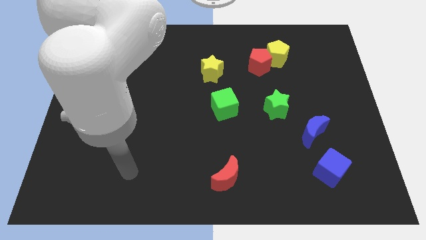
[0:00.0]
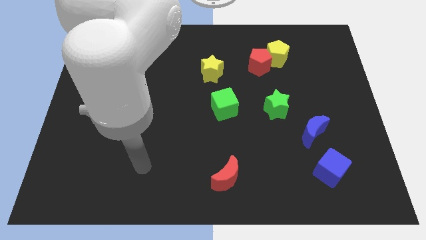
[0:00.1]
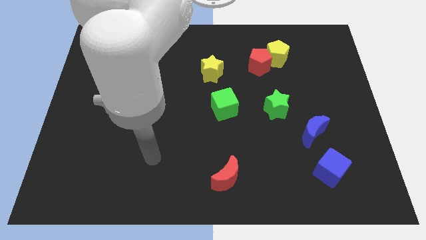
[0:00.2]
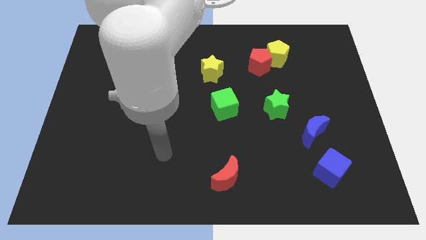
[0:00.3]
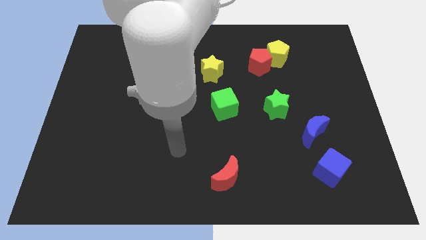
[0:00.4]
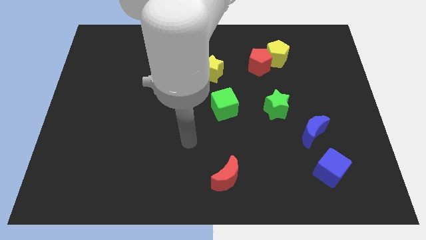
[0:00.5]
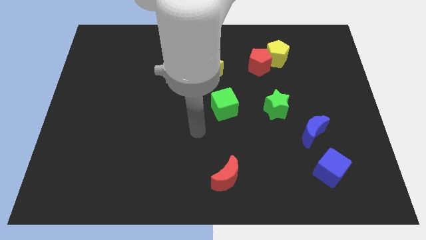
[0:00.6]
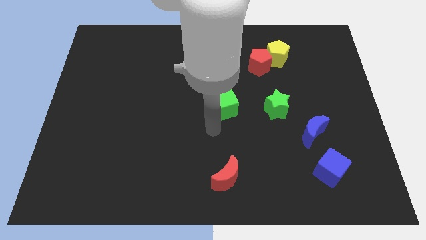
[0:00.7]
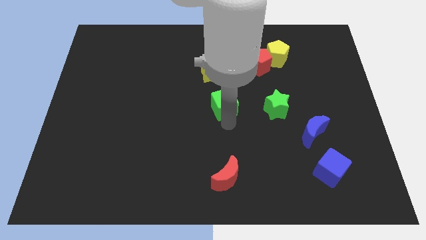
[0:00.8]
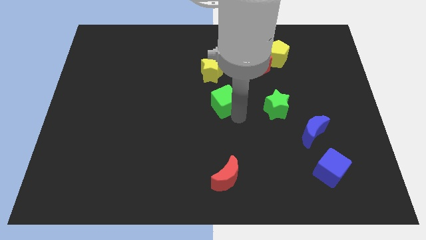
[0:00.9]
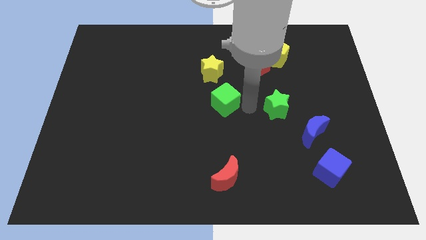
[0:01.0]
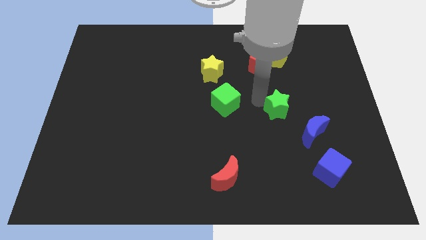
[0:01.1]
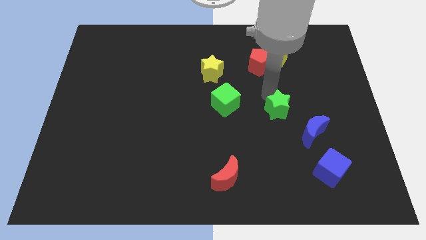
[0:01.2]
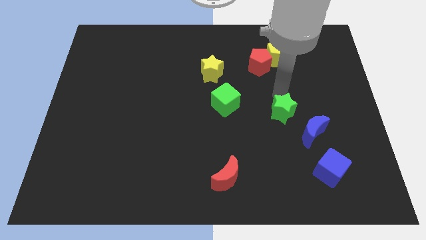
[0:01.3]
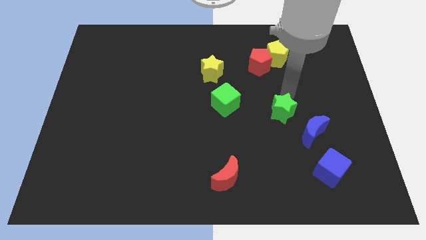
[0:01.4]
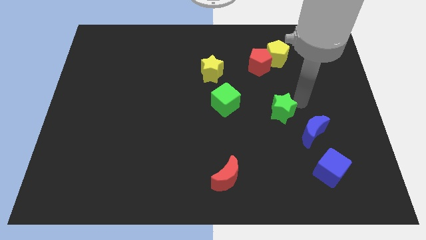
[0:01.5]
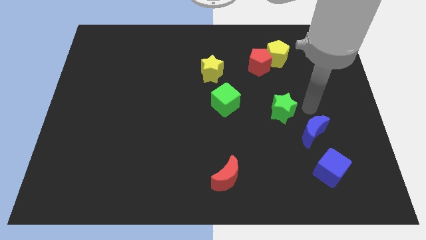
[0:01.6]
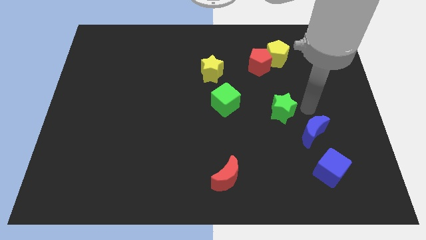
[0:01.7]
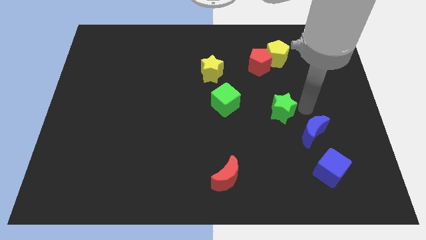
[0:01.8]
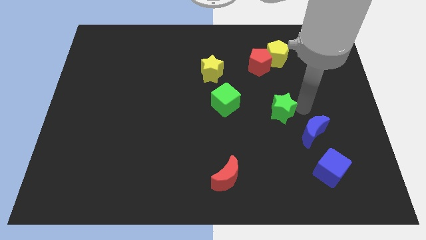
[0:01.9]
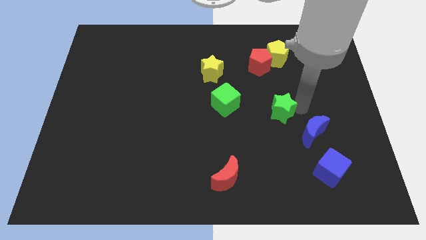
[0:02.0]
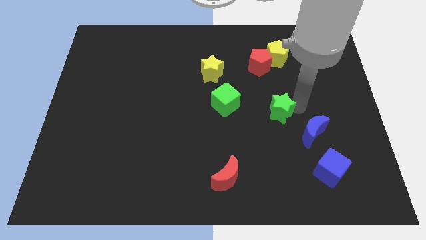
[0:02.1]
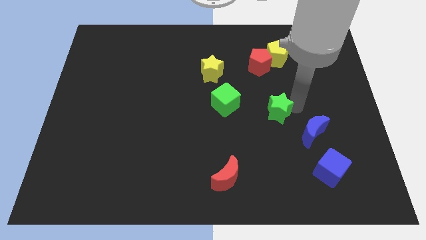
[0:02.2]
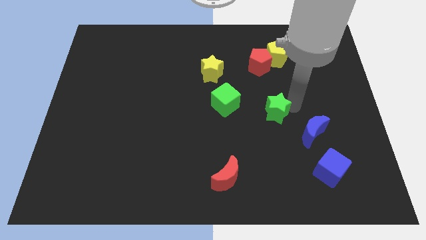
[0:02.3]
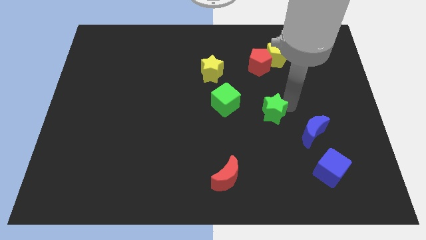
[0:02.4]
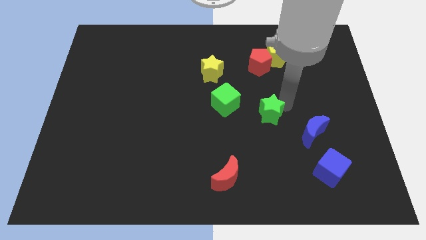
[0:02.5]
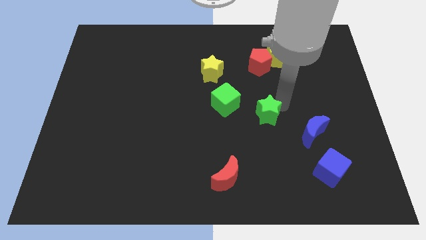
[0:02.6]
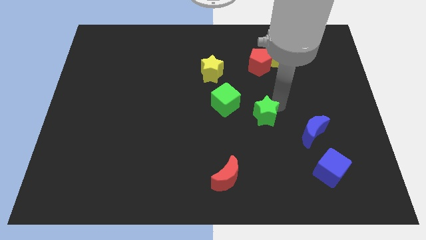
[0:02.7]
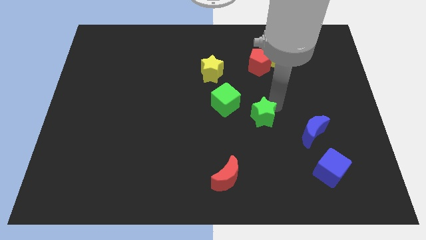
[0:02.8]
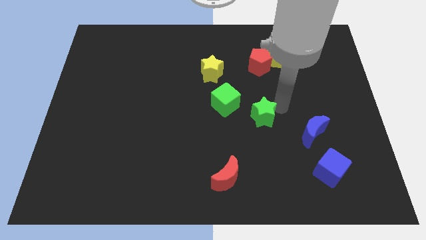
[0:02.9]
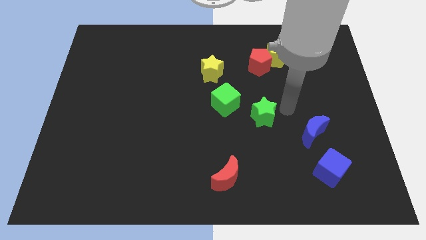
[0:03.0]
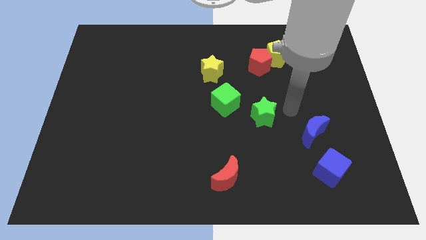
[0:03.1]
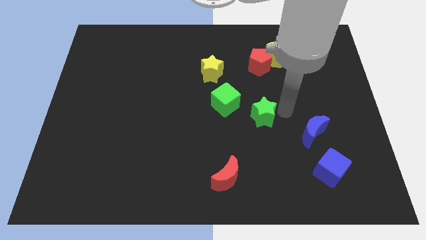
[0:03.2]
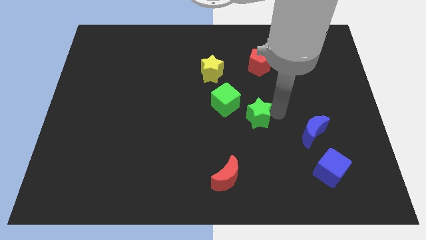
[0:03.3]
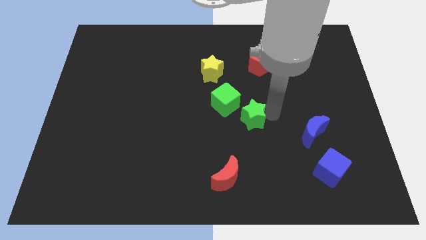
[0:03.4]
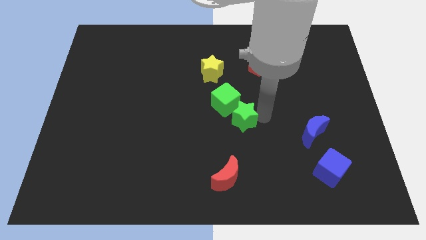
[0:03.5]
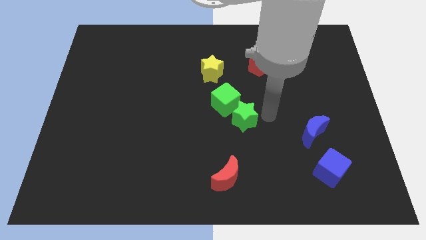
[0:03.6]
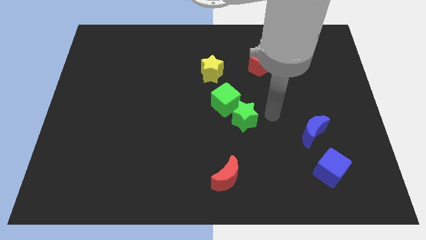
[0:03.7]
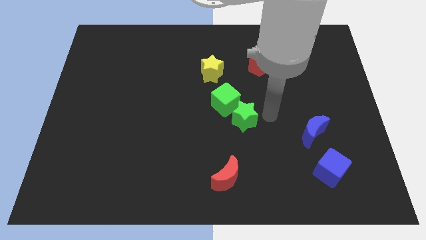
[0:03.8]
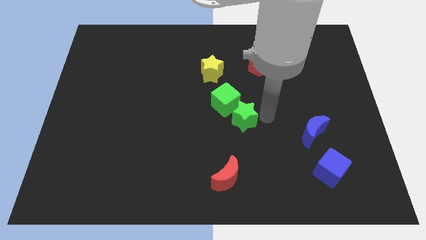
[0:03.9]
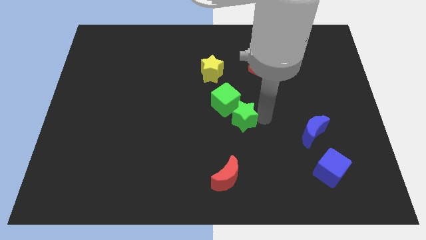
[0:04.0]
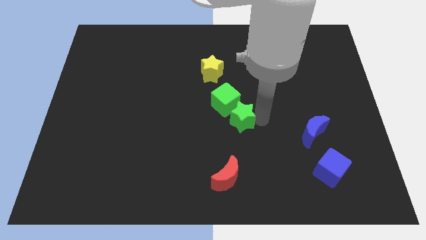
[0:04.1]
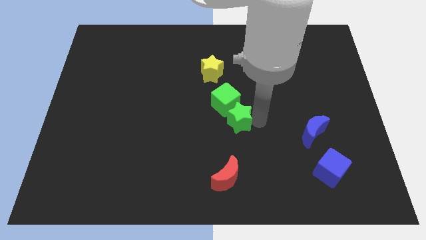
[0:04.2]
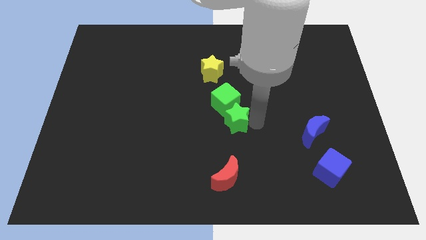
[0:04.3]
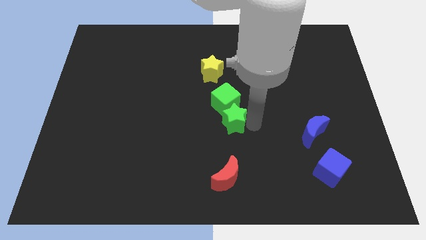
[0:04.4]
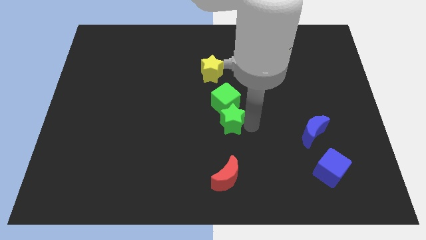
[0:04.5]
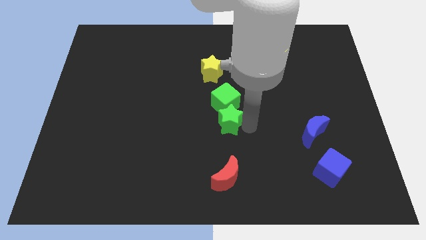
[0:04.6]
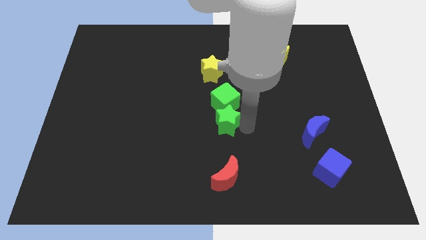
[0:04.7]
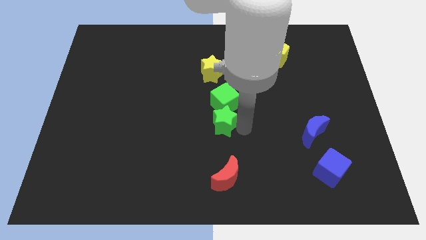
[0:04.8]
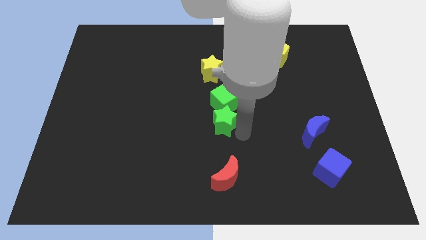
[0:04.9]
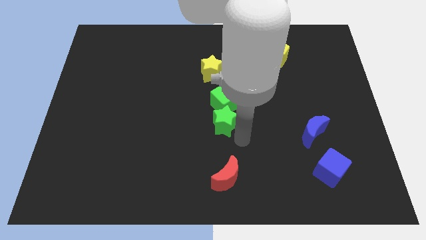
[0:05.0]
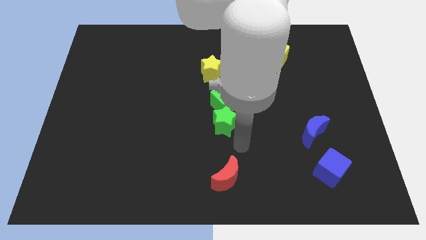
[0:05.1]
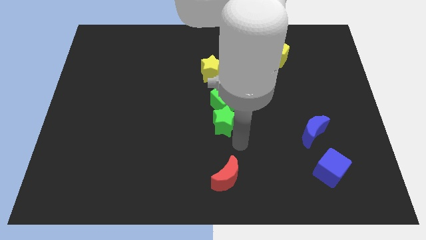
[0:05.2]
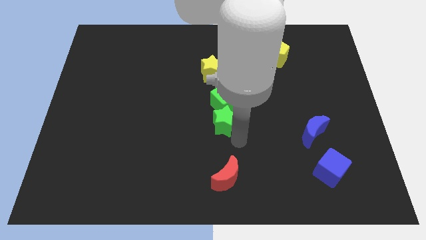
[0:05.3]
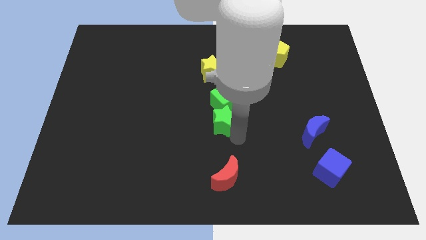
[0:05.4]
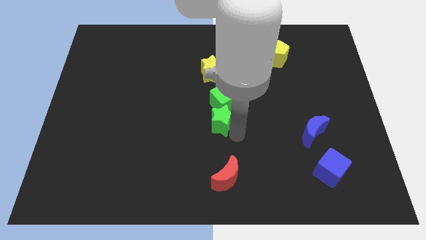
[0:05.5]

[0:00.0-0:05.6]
put the green star to the bottom side of the yellow star

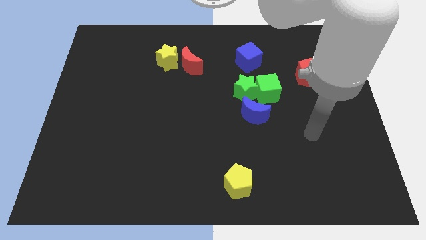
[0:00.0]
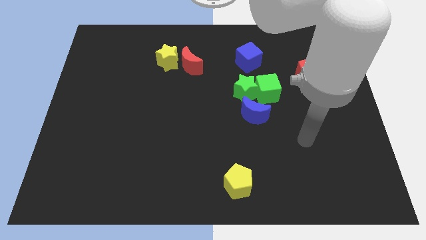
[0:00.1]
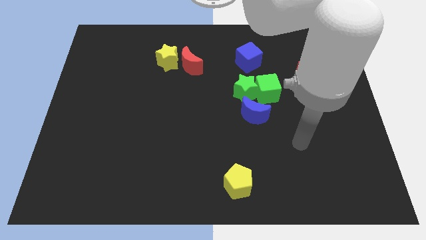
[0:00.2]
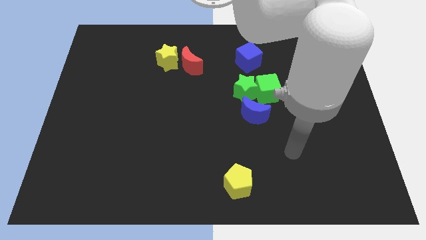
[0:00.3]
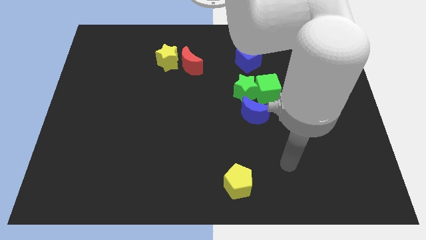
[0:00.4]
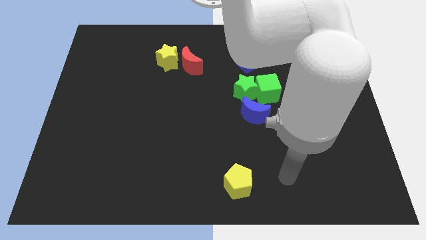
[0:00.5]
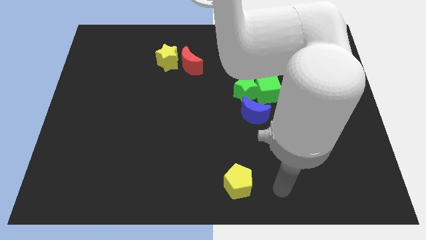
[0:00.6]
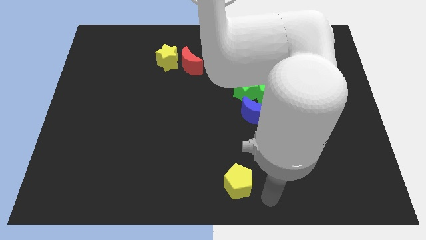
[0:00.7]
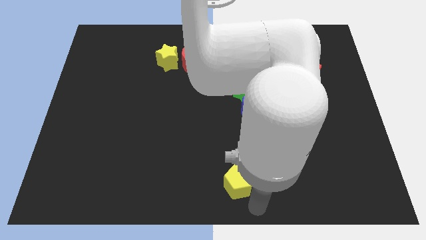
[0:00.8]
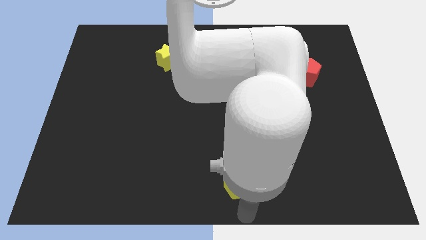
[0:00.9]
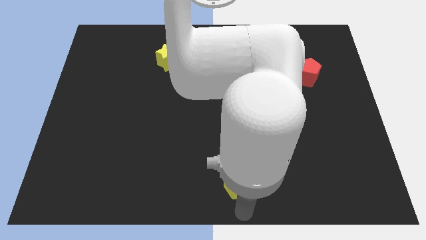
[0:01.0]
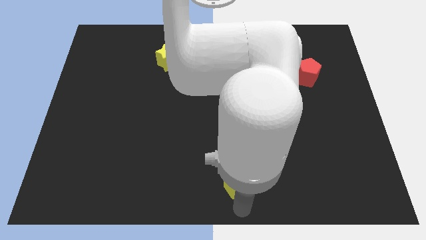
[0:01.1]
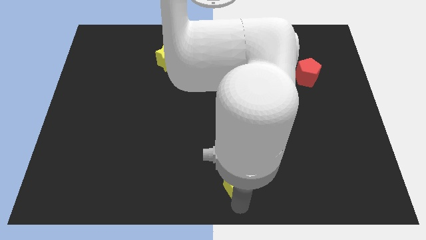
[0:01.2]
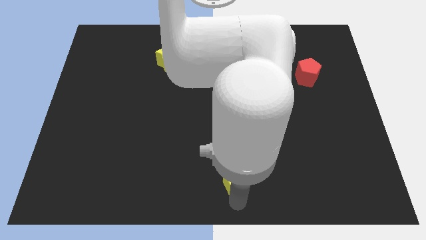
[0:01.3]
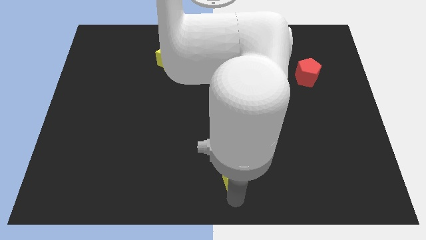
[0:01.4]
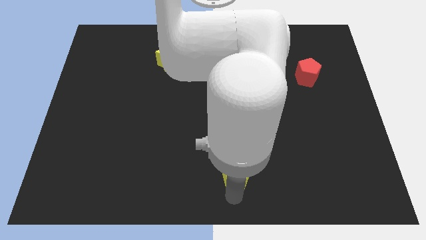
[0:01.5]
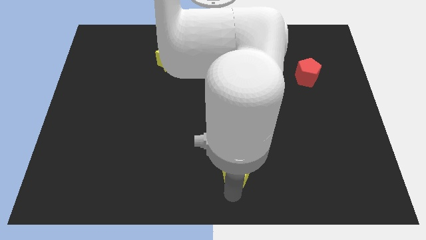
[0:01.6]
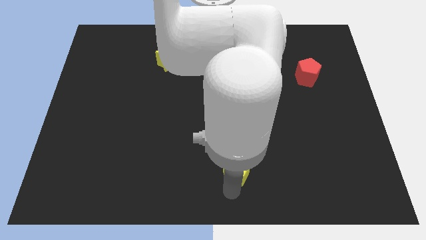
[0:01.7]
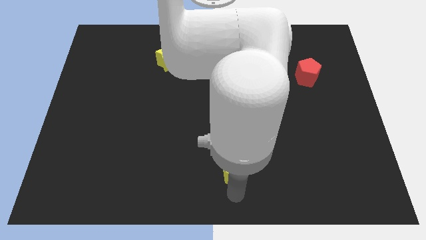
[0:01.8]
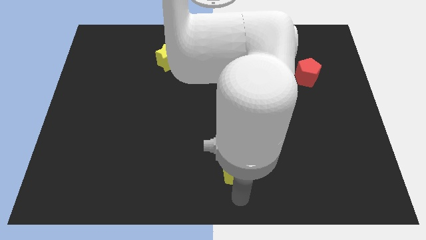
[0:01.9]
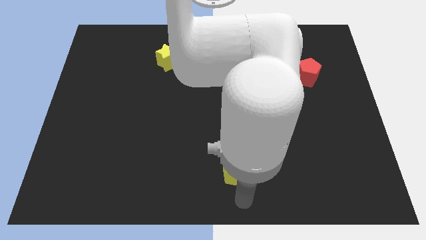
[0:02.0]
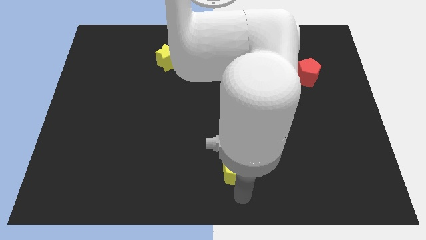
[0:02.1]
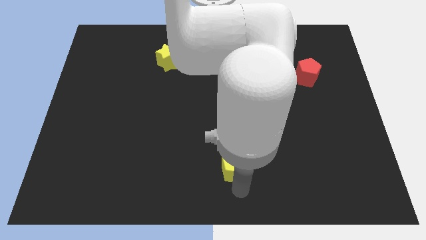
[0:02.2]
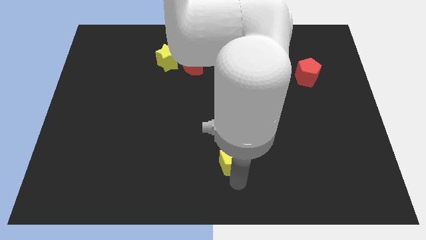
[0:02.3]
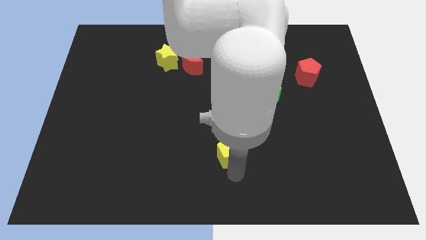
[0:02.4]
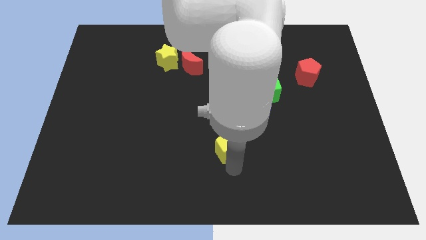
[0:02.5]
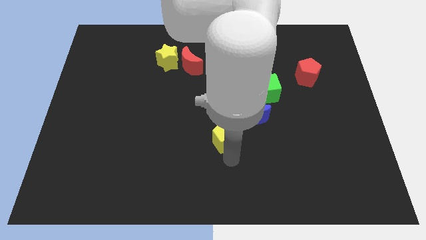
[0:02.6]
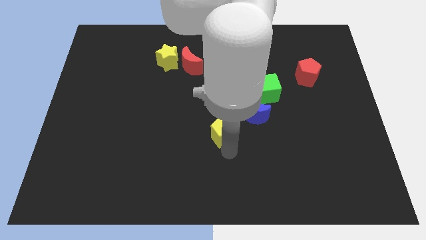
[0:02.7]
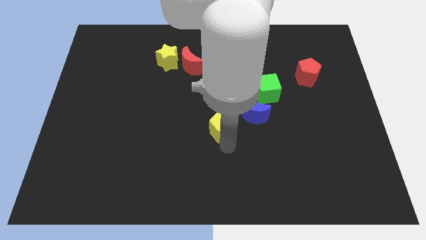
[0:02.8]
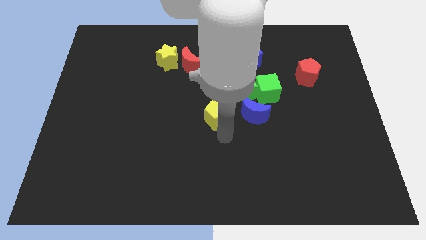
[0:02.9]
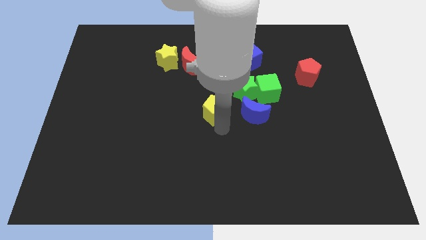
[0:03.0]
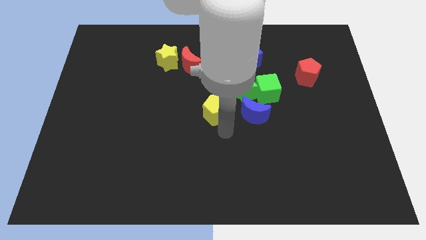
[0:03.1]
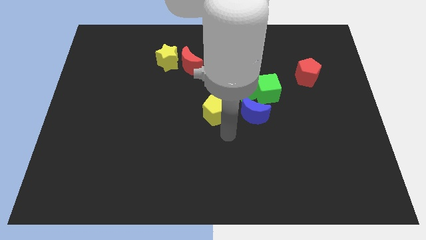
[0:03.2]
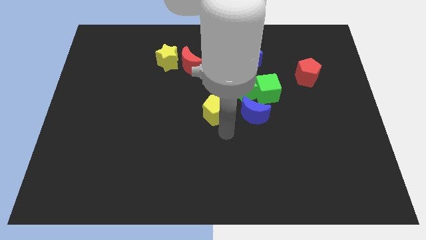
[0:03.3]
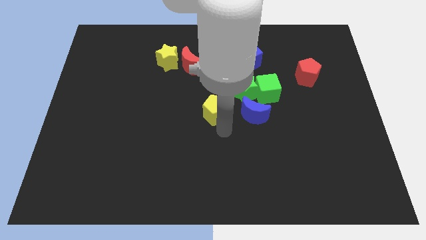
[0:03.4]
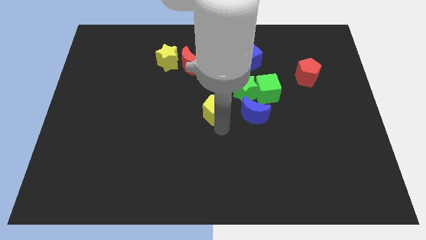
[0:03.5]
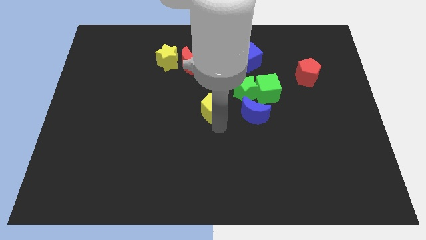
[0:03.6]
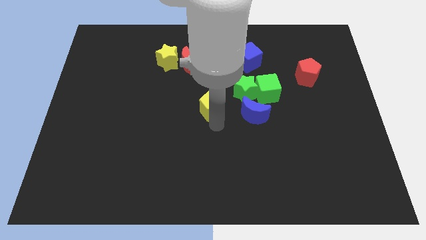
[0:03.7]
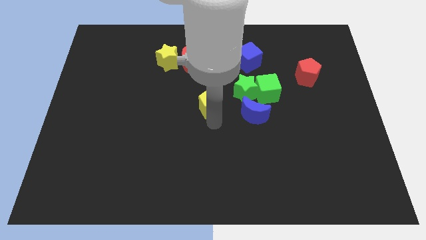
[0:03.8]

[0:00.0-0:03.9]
put the yellow pentagon to the left side of the green star
